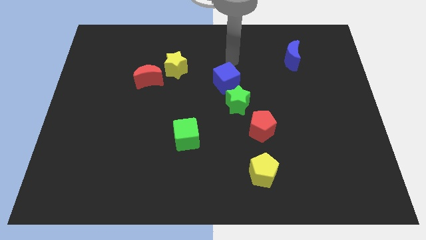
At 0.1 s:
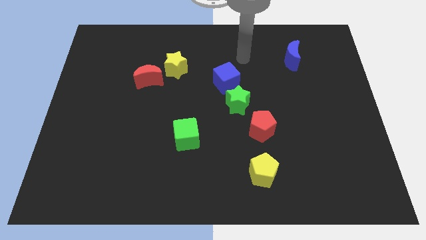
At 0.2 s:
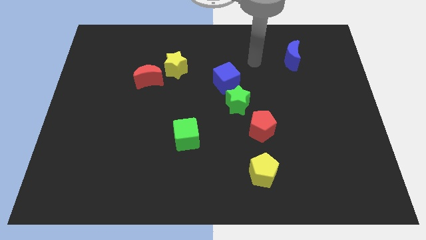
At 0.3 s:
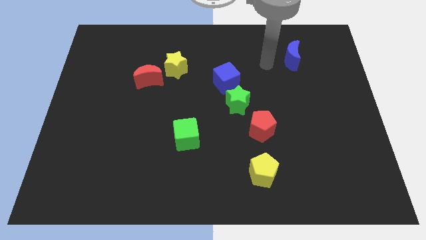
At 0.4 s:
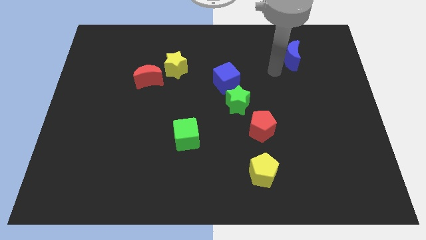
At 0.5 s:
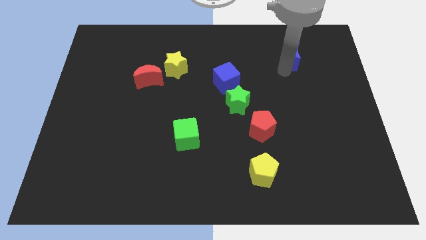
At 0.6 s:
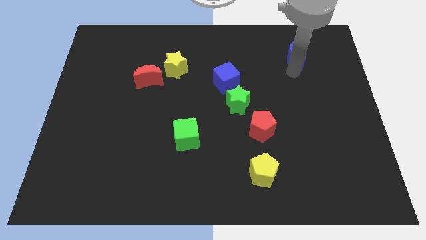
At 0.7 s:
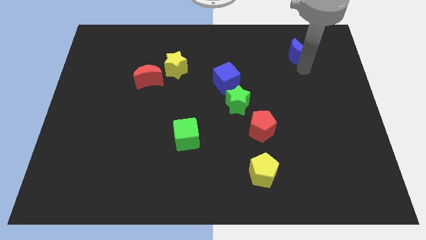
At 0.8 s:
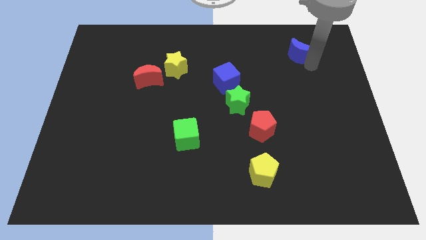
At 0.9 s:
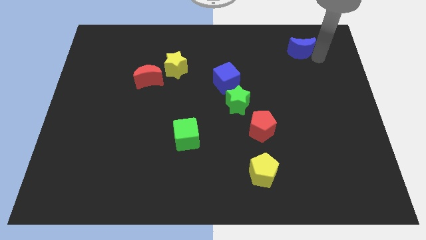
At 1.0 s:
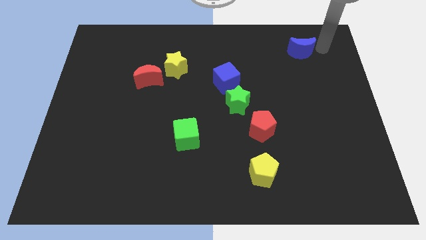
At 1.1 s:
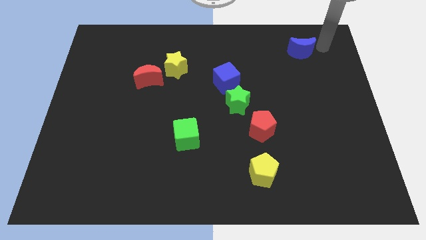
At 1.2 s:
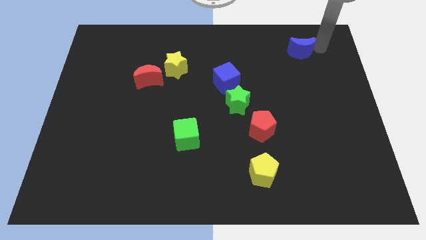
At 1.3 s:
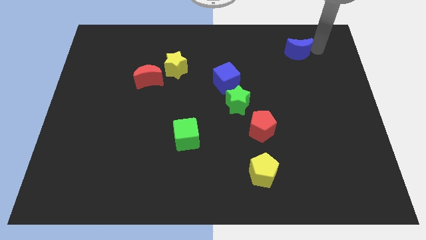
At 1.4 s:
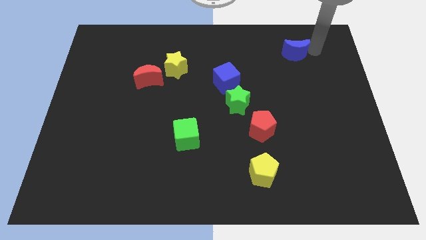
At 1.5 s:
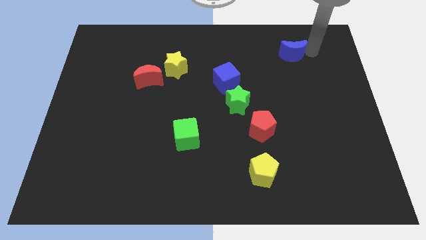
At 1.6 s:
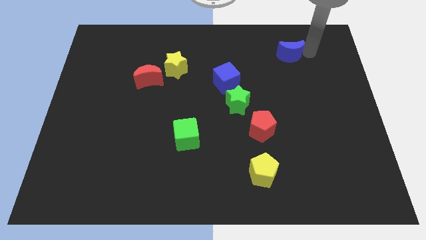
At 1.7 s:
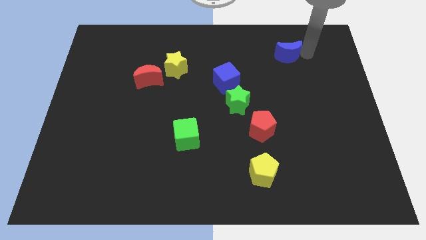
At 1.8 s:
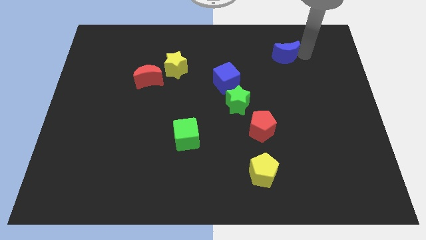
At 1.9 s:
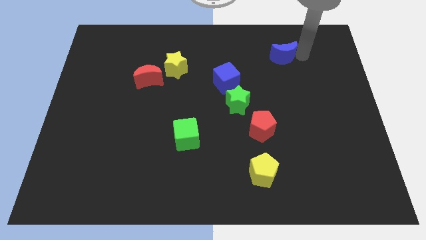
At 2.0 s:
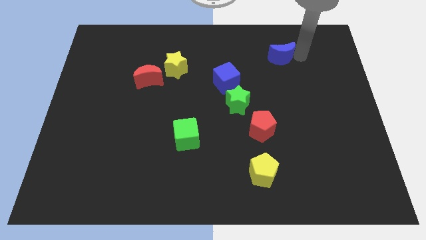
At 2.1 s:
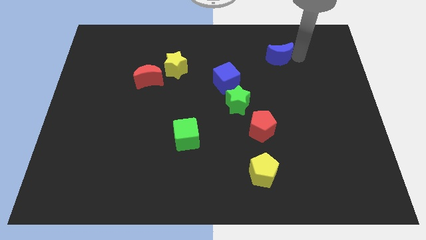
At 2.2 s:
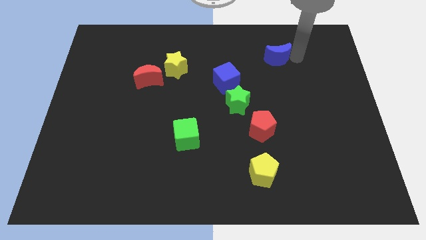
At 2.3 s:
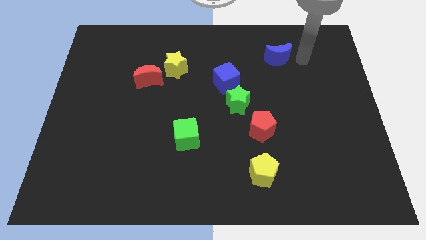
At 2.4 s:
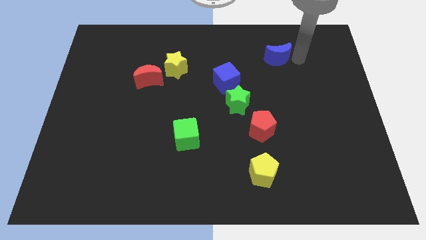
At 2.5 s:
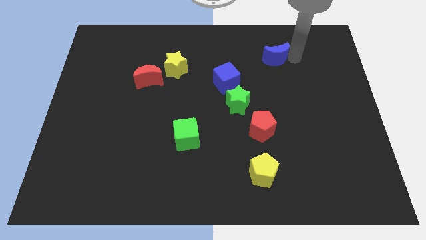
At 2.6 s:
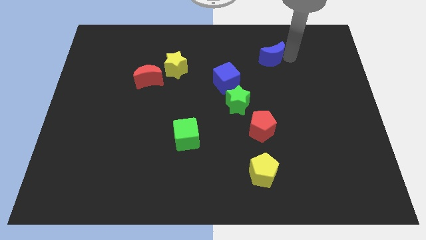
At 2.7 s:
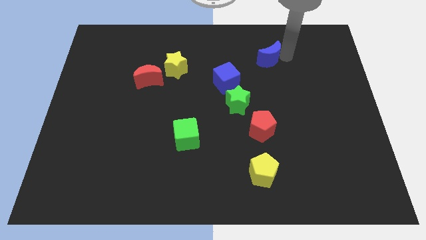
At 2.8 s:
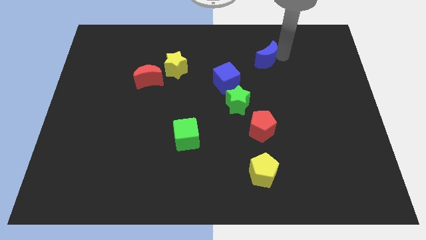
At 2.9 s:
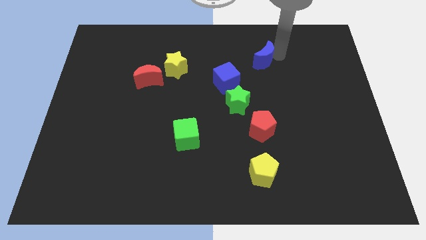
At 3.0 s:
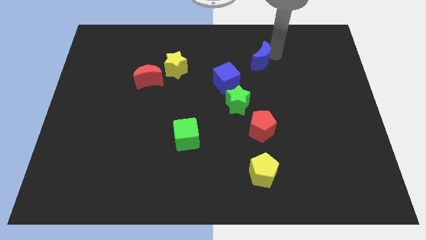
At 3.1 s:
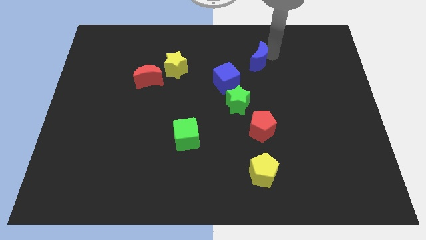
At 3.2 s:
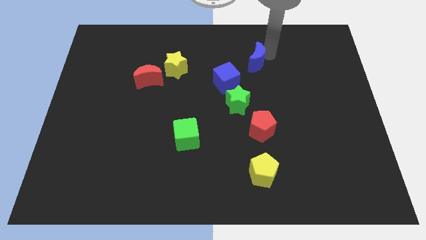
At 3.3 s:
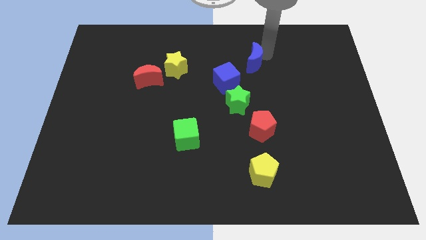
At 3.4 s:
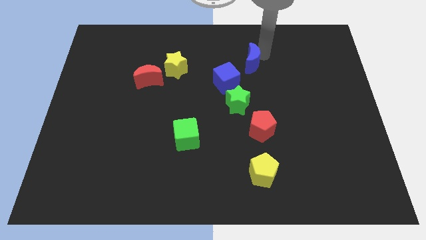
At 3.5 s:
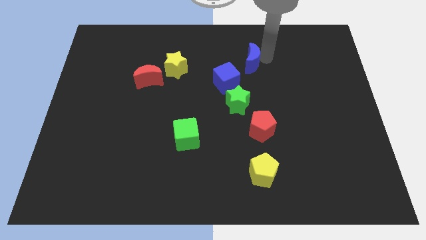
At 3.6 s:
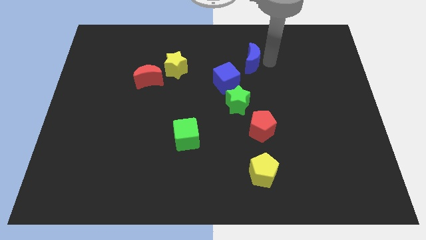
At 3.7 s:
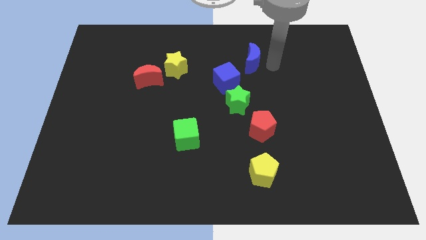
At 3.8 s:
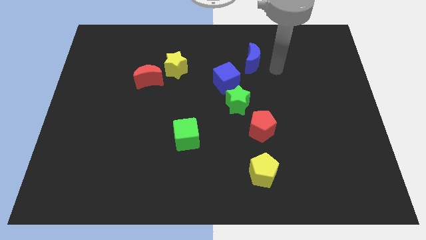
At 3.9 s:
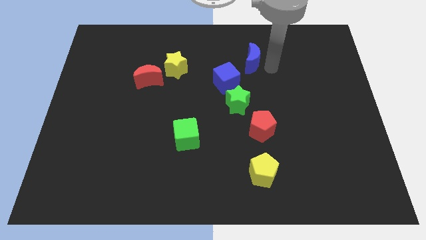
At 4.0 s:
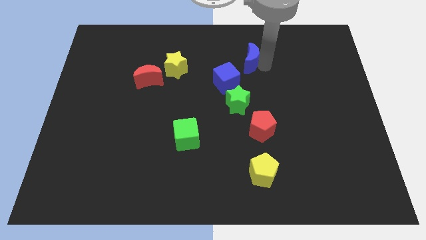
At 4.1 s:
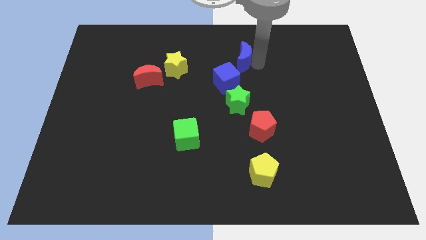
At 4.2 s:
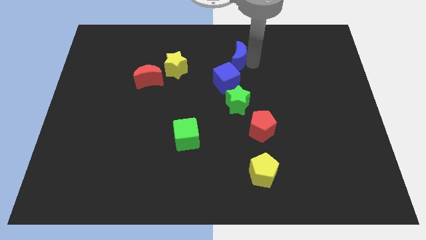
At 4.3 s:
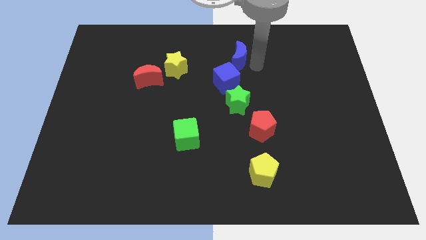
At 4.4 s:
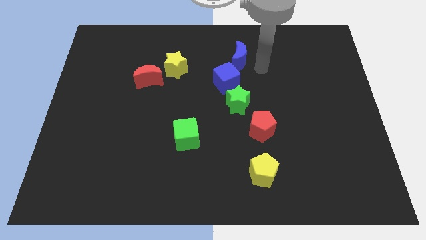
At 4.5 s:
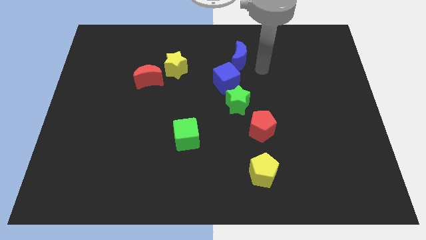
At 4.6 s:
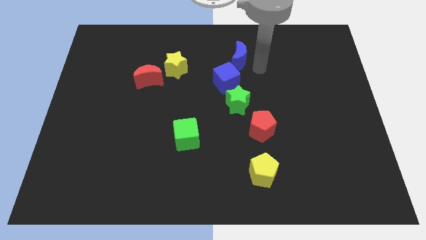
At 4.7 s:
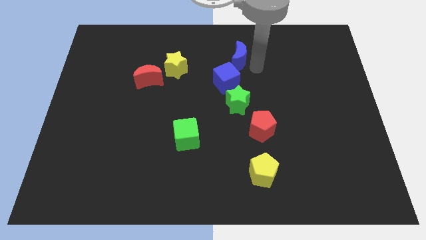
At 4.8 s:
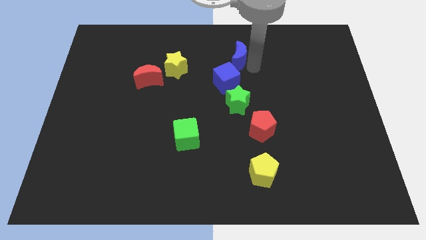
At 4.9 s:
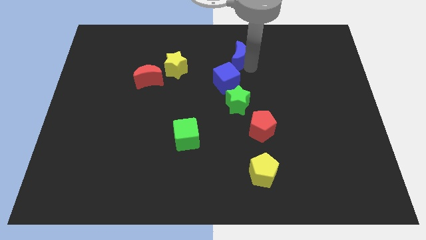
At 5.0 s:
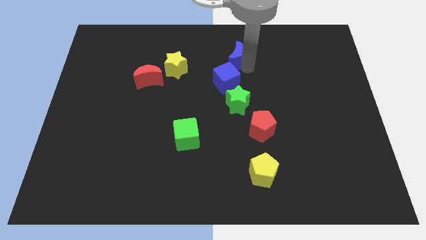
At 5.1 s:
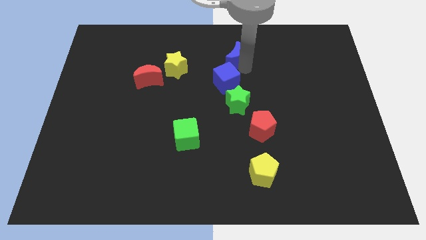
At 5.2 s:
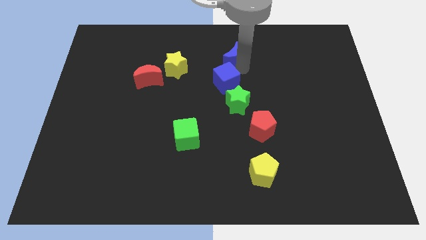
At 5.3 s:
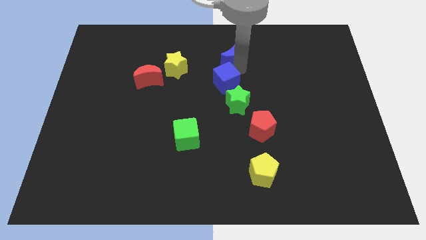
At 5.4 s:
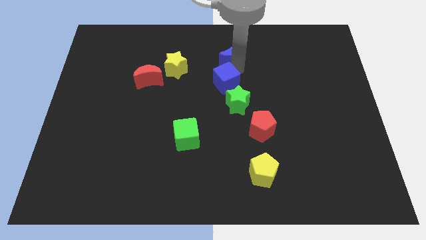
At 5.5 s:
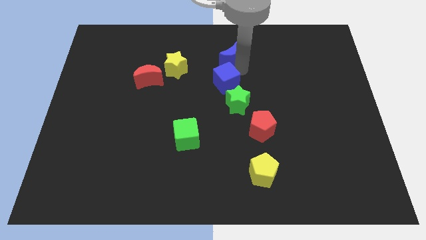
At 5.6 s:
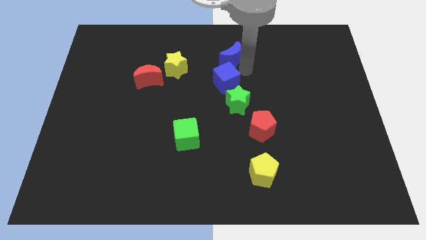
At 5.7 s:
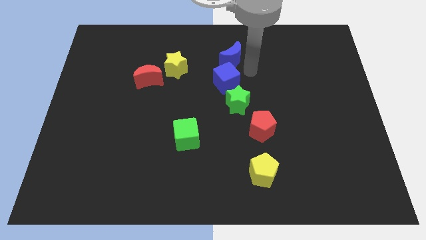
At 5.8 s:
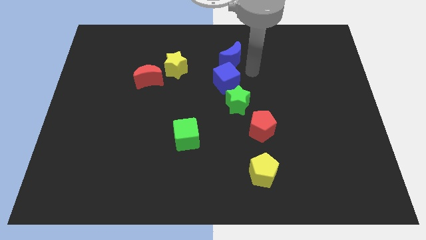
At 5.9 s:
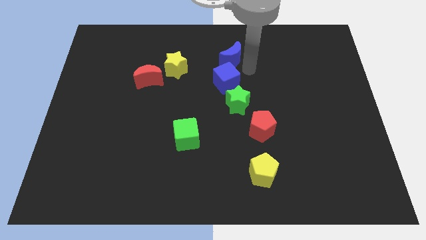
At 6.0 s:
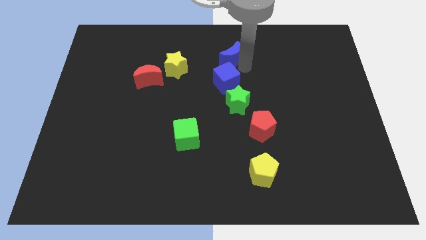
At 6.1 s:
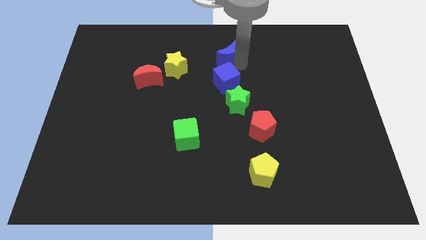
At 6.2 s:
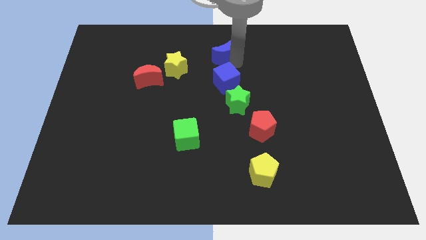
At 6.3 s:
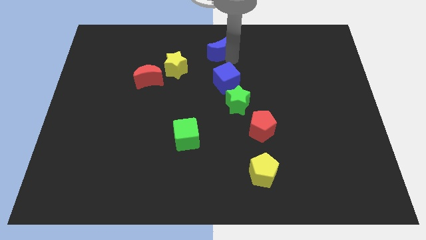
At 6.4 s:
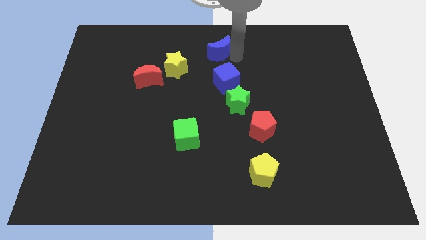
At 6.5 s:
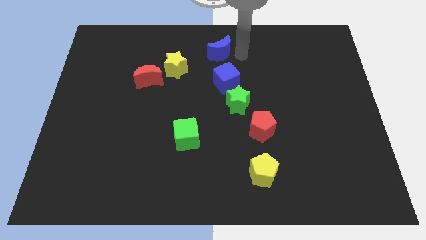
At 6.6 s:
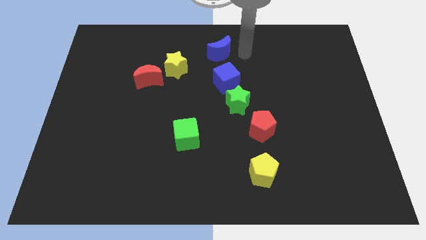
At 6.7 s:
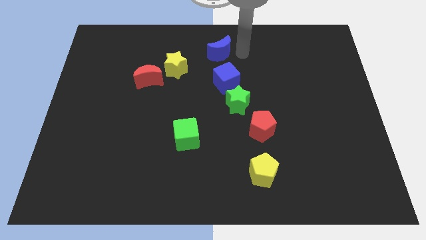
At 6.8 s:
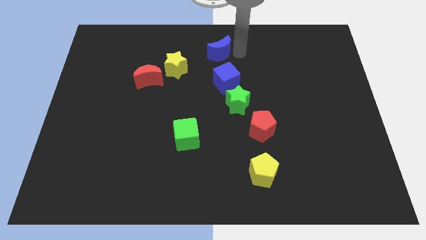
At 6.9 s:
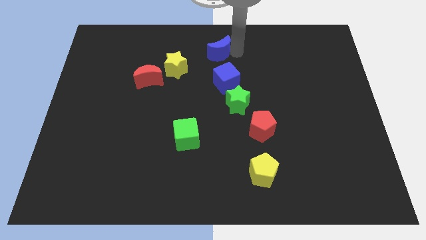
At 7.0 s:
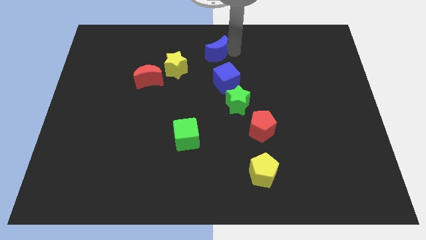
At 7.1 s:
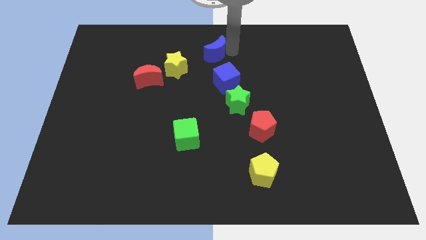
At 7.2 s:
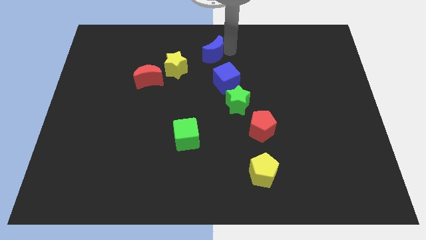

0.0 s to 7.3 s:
slide the blue moon to the left

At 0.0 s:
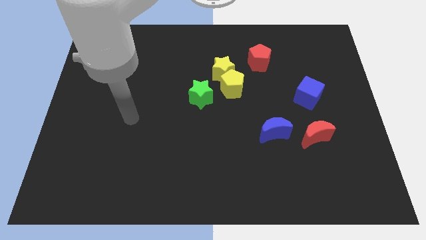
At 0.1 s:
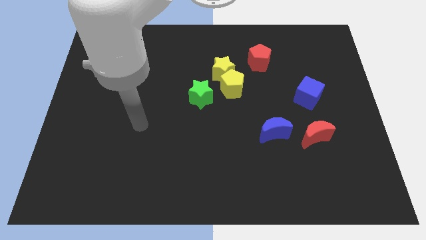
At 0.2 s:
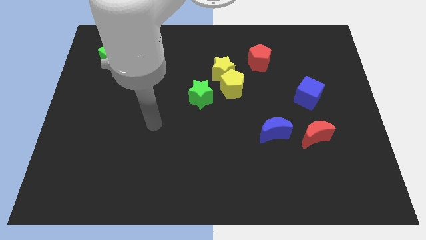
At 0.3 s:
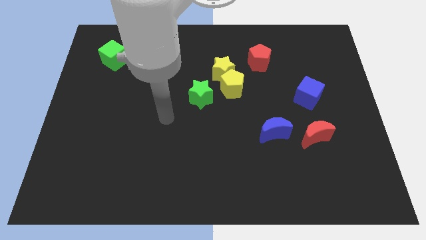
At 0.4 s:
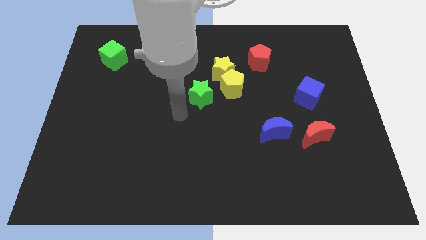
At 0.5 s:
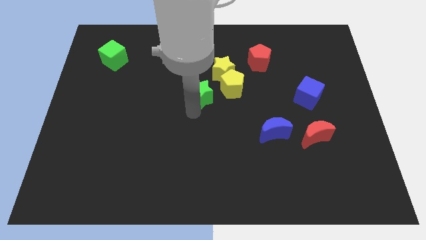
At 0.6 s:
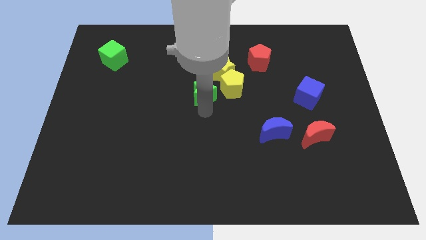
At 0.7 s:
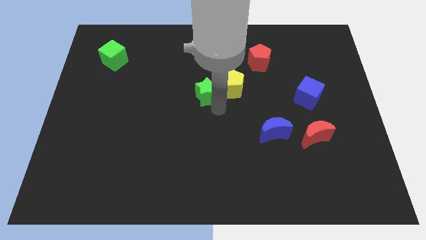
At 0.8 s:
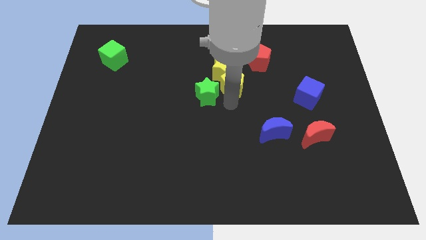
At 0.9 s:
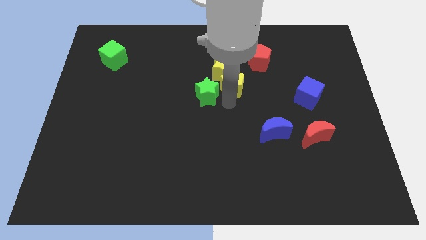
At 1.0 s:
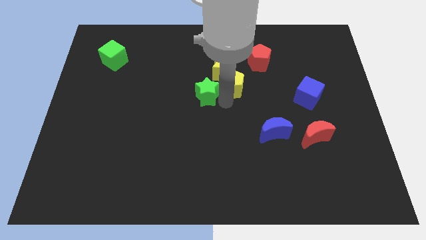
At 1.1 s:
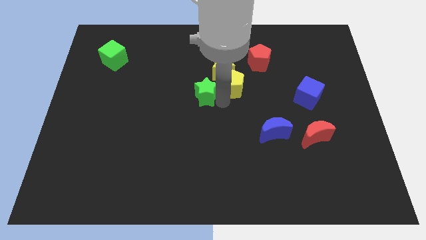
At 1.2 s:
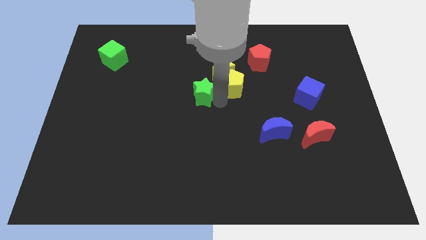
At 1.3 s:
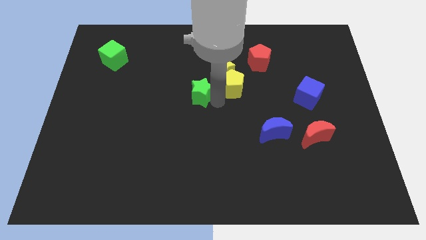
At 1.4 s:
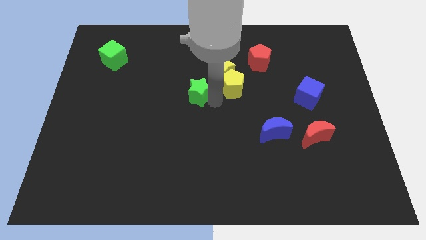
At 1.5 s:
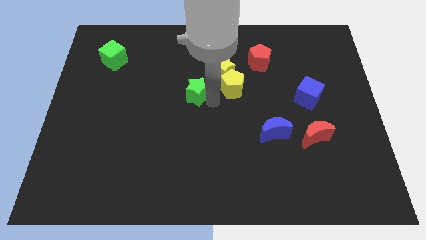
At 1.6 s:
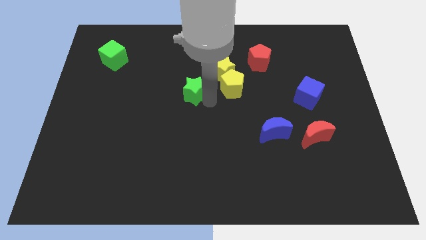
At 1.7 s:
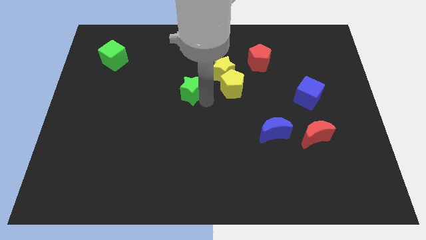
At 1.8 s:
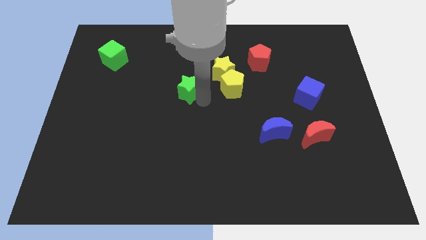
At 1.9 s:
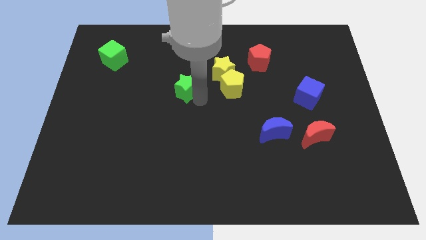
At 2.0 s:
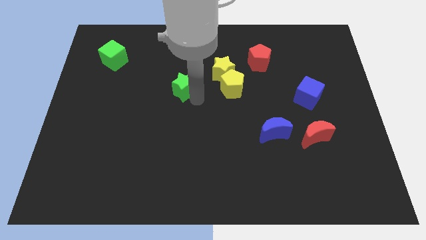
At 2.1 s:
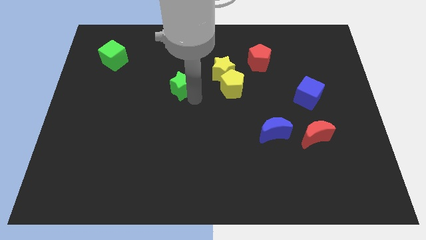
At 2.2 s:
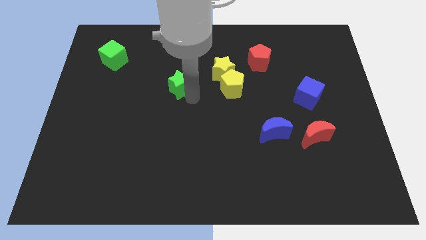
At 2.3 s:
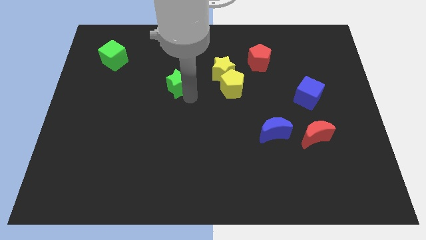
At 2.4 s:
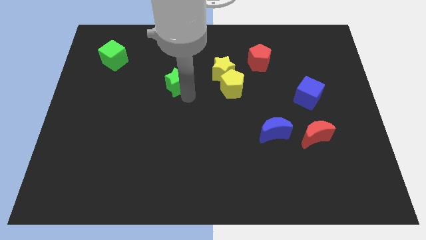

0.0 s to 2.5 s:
slightly move the green star up and left
